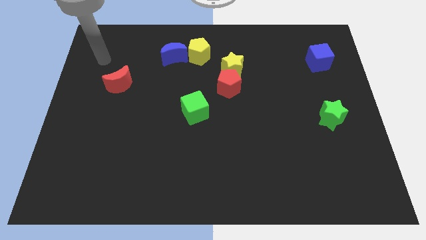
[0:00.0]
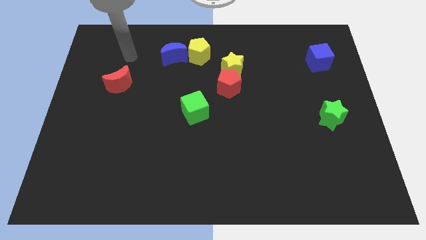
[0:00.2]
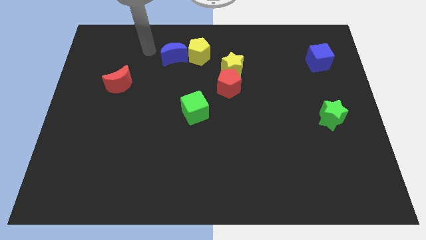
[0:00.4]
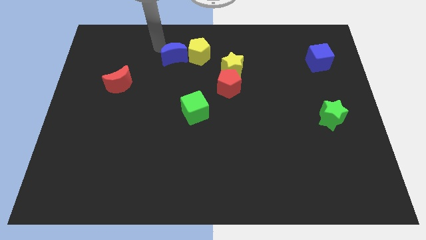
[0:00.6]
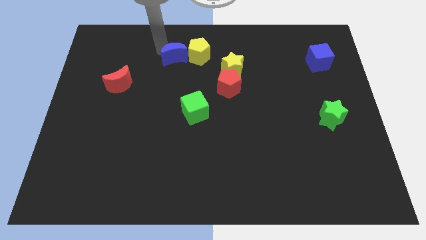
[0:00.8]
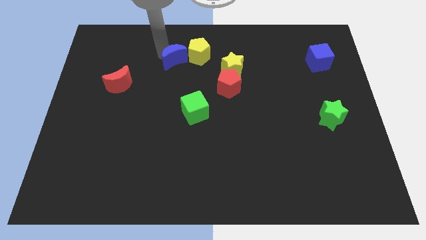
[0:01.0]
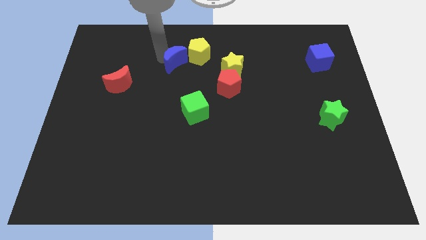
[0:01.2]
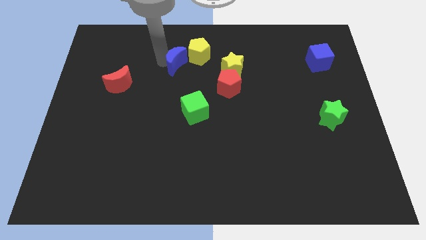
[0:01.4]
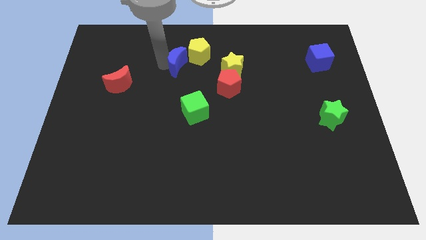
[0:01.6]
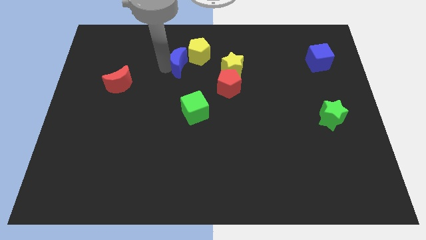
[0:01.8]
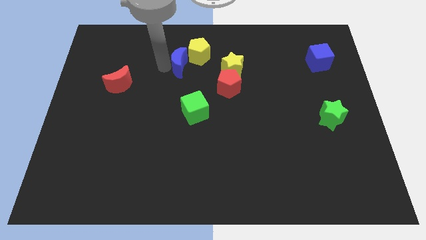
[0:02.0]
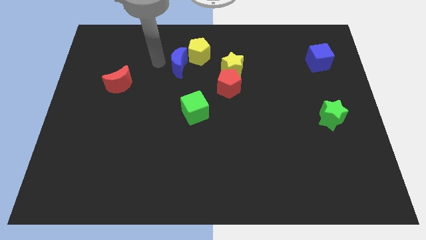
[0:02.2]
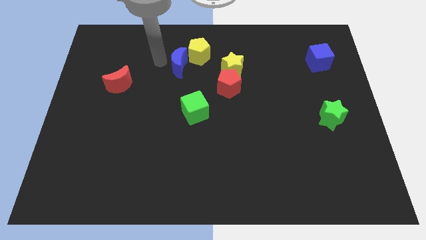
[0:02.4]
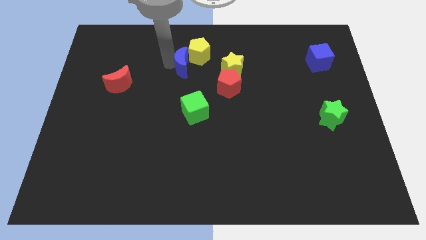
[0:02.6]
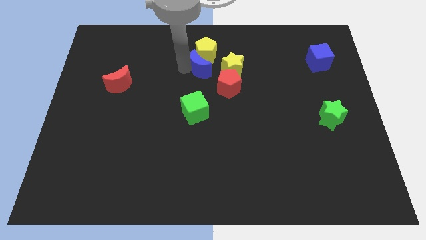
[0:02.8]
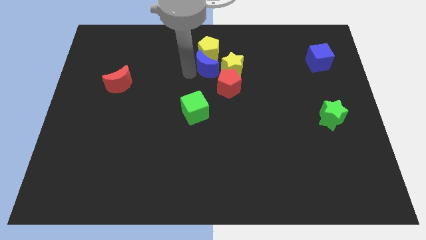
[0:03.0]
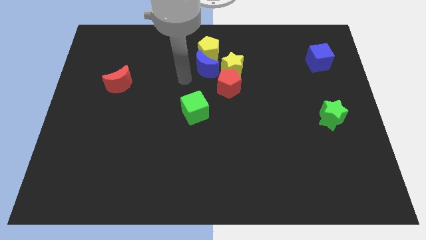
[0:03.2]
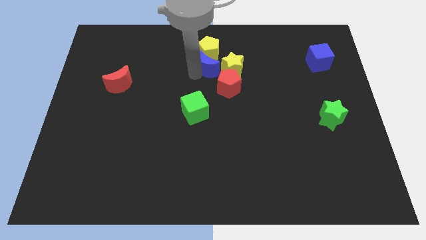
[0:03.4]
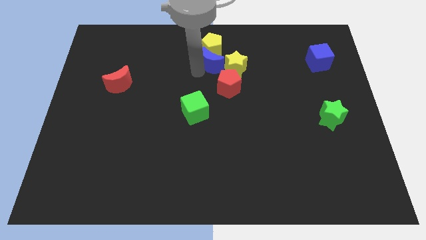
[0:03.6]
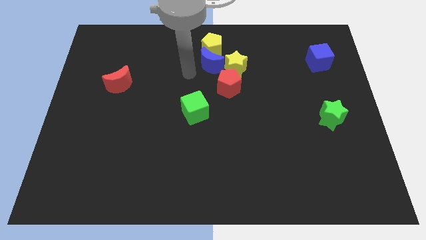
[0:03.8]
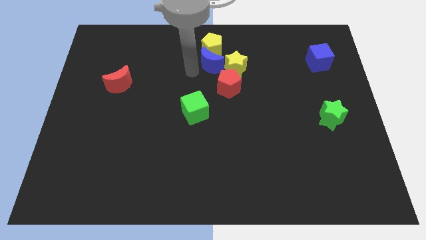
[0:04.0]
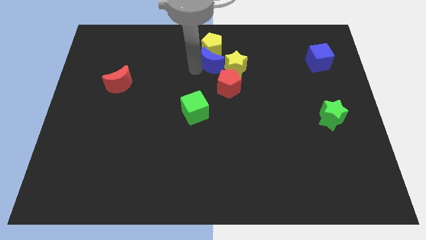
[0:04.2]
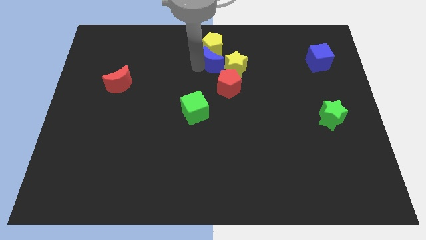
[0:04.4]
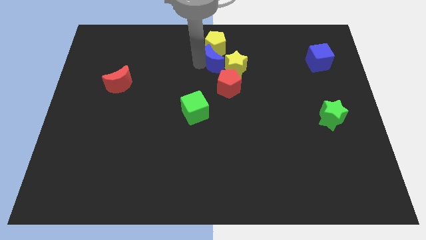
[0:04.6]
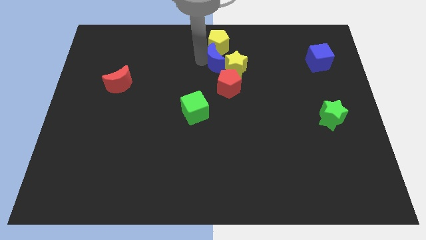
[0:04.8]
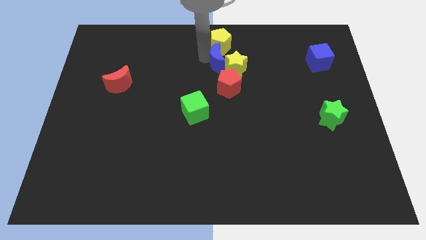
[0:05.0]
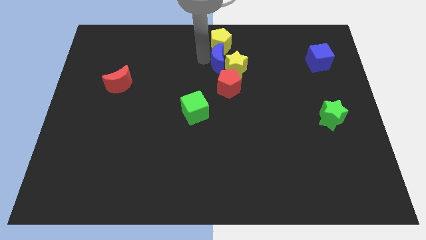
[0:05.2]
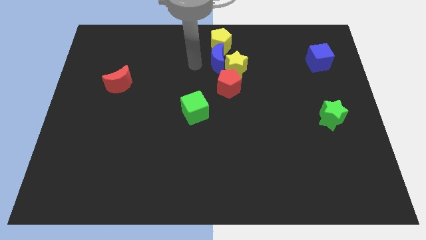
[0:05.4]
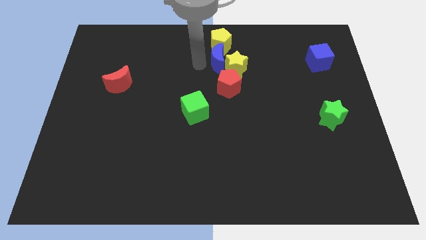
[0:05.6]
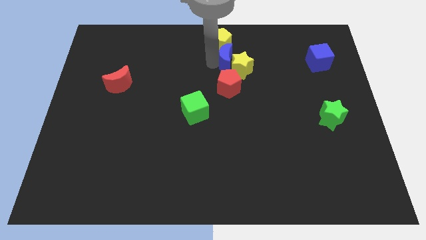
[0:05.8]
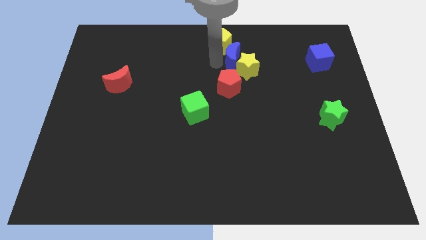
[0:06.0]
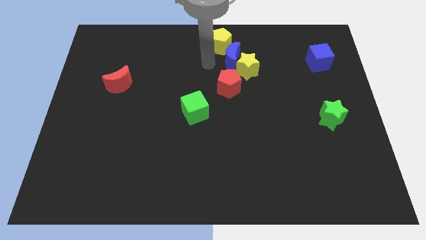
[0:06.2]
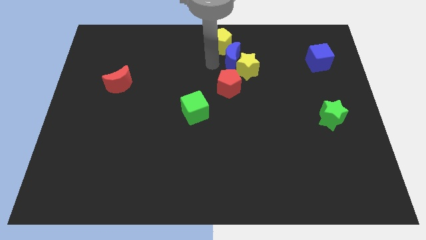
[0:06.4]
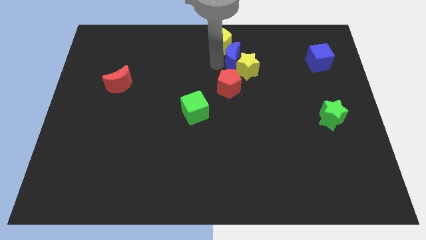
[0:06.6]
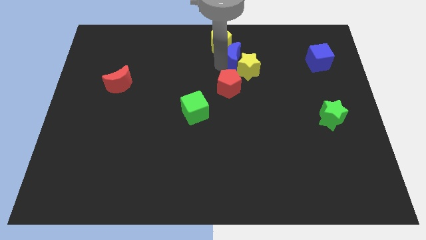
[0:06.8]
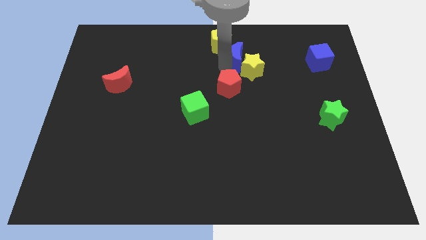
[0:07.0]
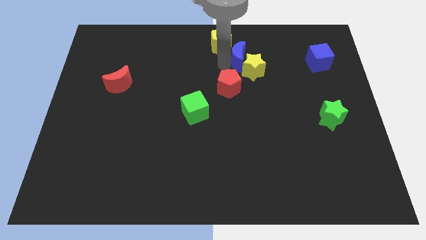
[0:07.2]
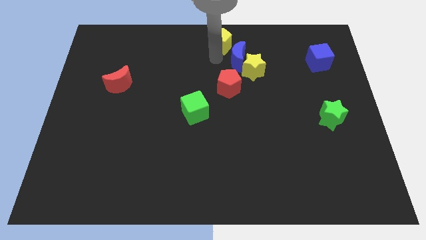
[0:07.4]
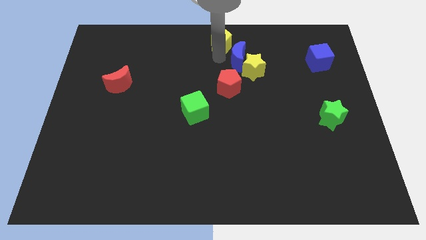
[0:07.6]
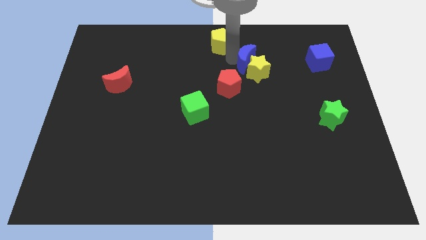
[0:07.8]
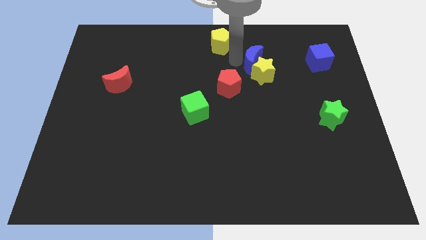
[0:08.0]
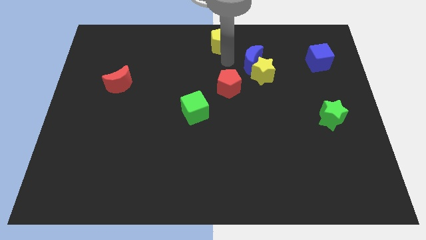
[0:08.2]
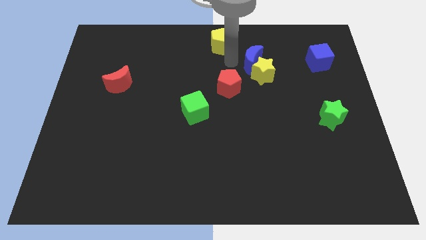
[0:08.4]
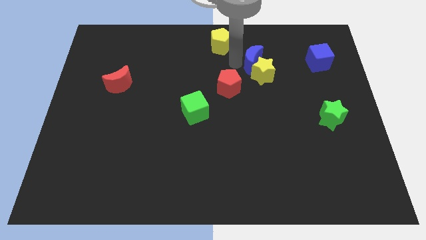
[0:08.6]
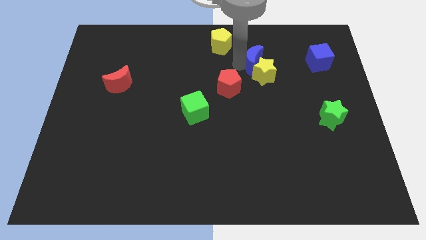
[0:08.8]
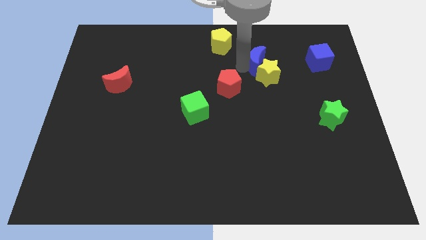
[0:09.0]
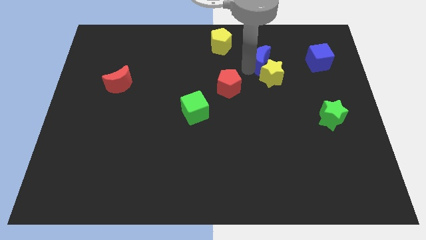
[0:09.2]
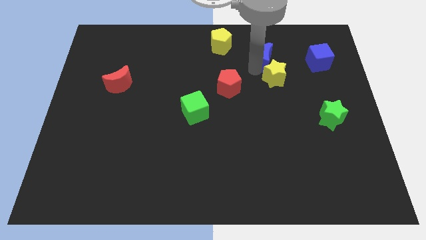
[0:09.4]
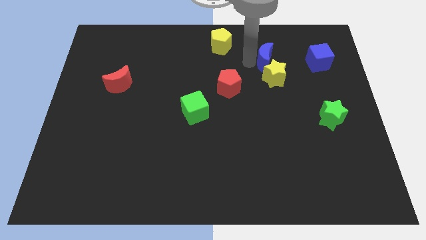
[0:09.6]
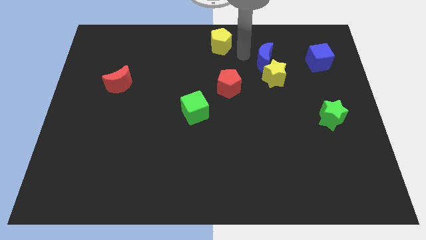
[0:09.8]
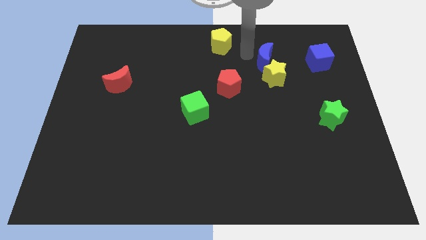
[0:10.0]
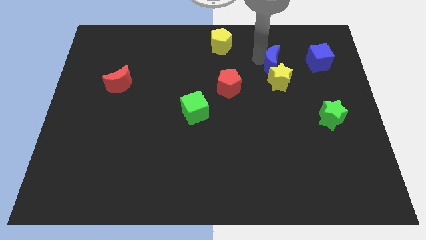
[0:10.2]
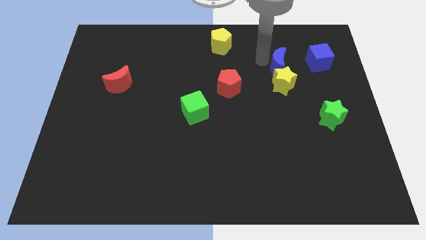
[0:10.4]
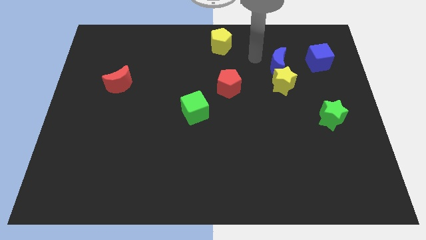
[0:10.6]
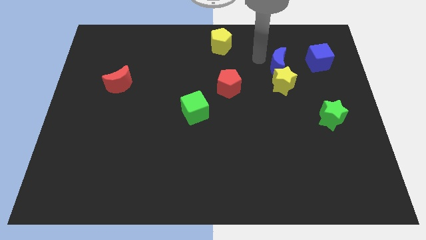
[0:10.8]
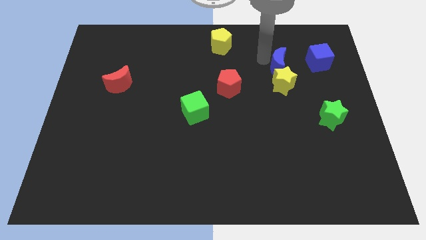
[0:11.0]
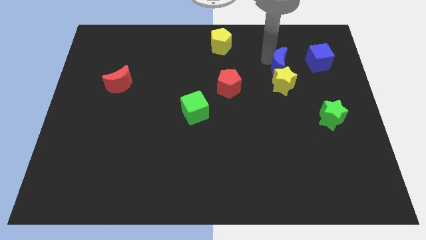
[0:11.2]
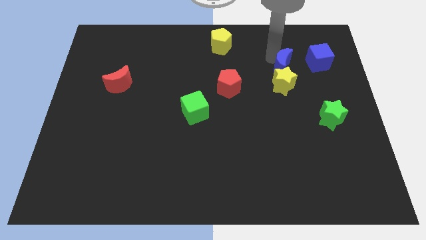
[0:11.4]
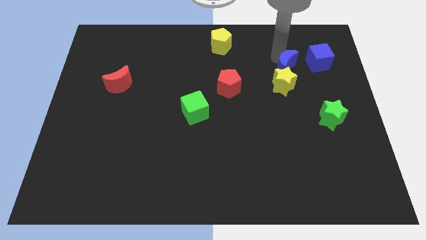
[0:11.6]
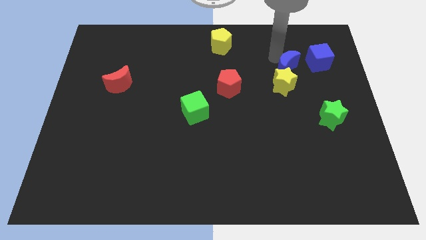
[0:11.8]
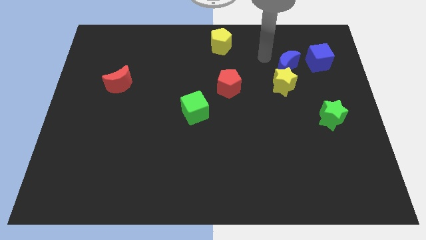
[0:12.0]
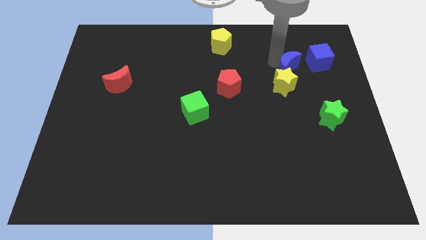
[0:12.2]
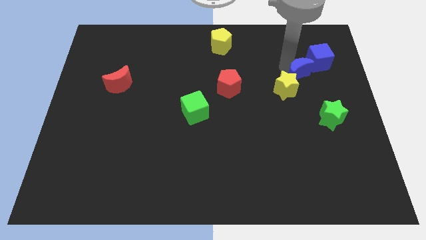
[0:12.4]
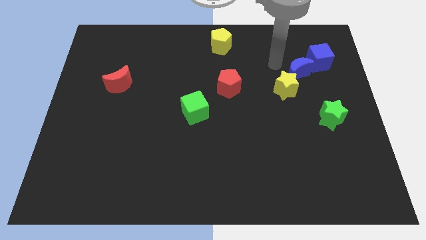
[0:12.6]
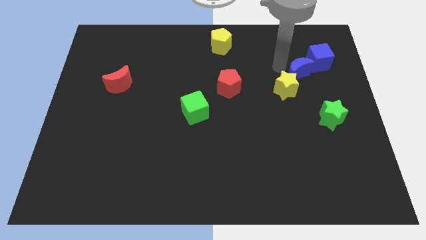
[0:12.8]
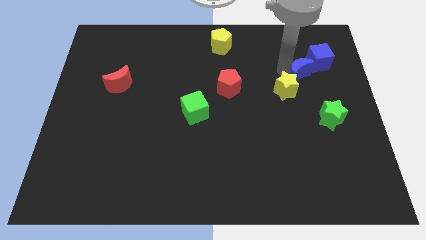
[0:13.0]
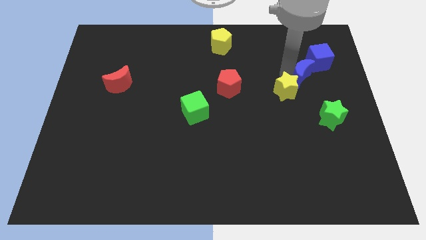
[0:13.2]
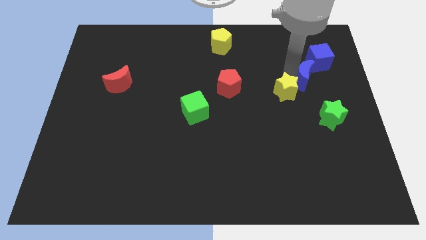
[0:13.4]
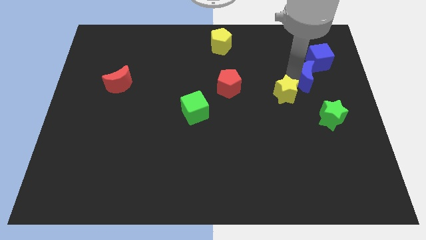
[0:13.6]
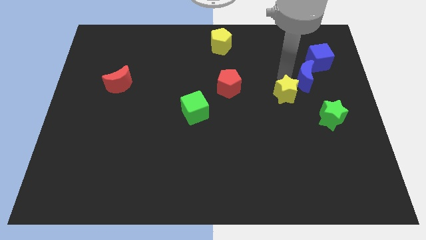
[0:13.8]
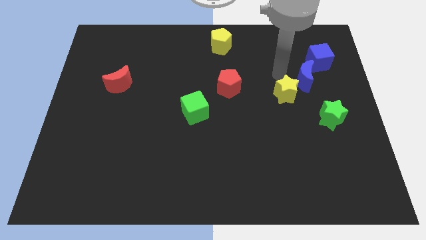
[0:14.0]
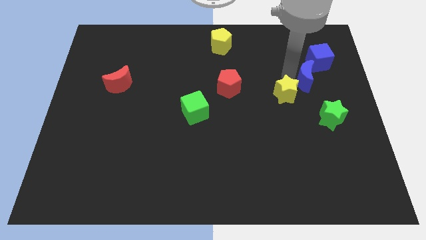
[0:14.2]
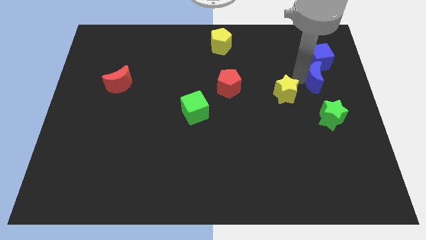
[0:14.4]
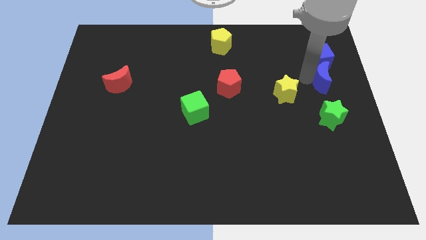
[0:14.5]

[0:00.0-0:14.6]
push the blue moon to the right side of the board

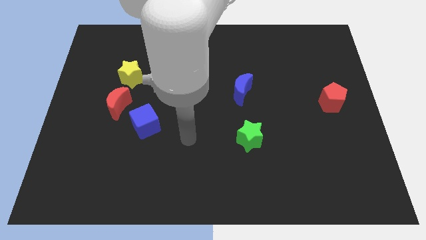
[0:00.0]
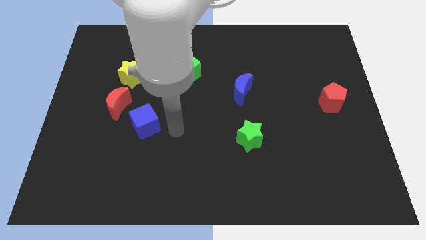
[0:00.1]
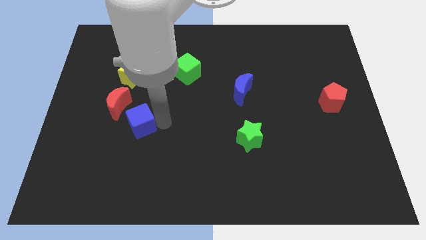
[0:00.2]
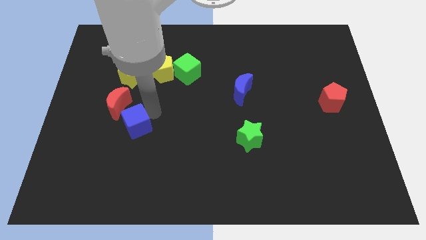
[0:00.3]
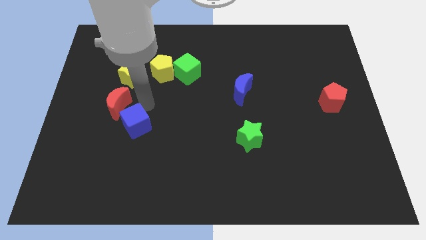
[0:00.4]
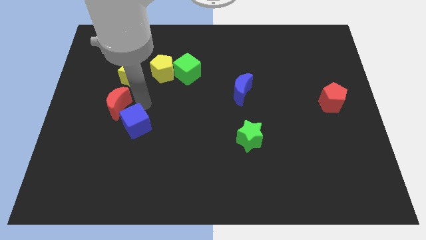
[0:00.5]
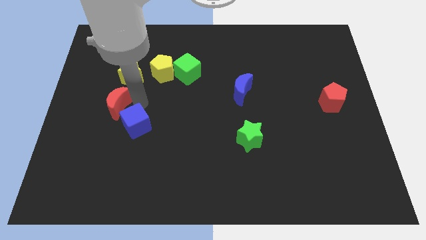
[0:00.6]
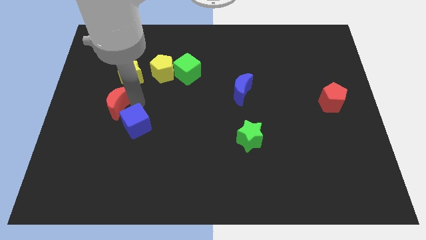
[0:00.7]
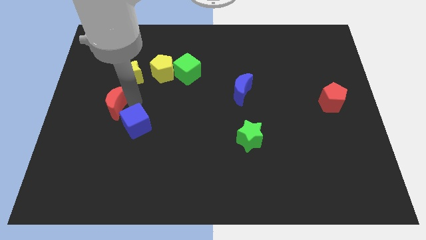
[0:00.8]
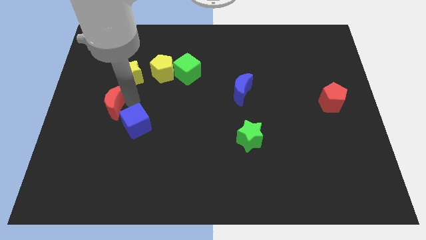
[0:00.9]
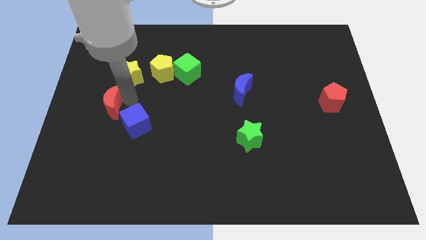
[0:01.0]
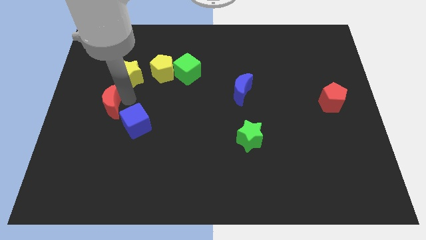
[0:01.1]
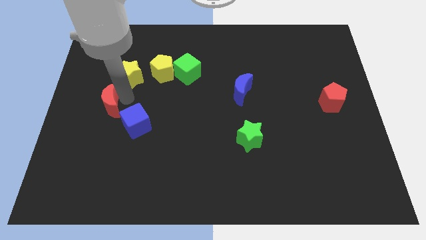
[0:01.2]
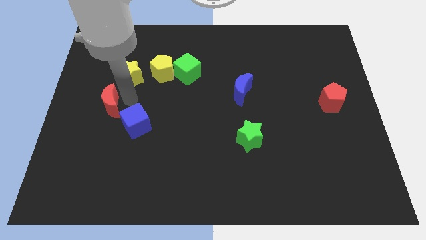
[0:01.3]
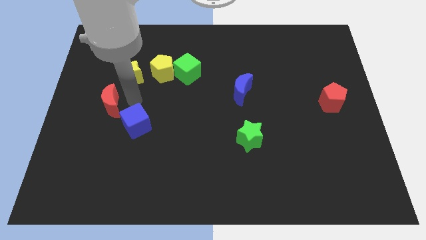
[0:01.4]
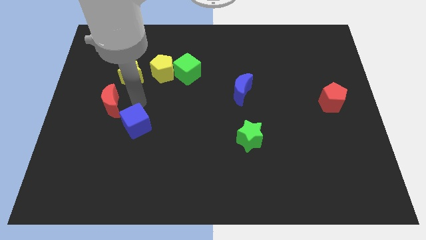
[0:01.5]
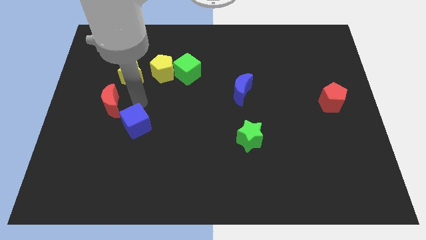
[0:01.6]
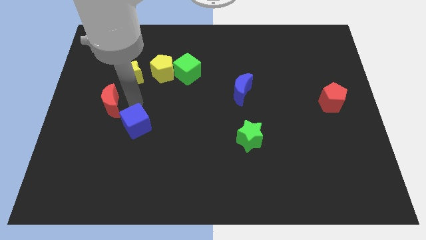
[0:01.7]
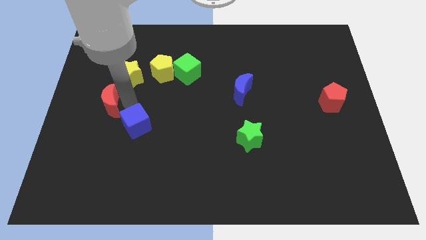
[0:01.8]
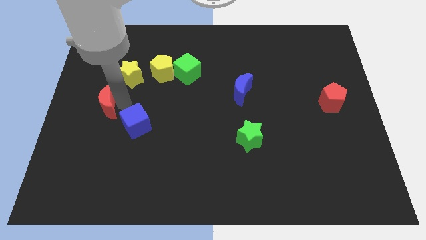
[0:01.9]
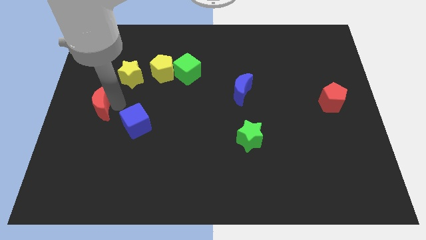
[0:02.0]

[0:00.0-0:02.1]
move the red moon to the center left
